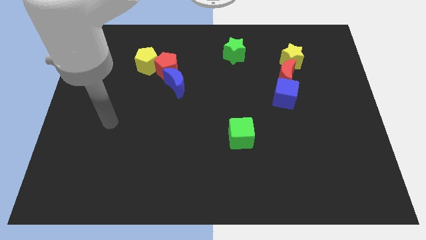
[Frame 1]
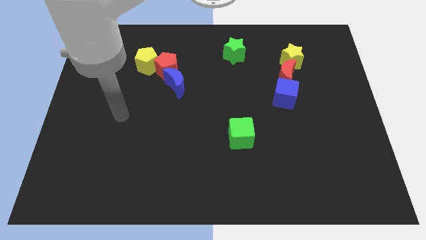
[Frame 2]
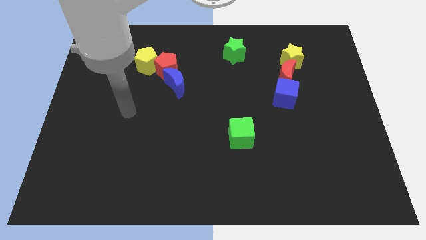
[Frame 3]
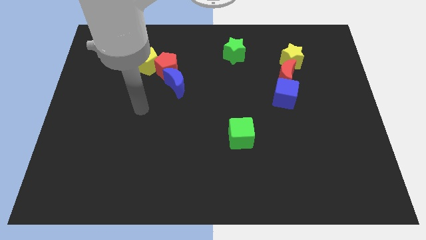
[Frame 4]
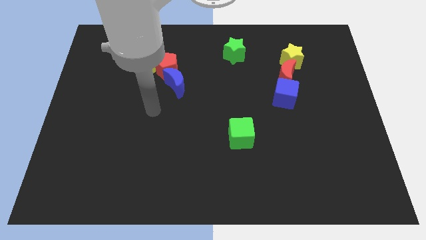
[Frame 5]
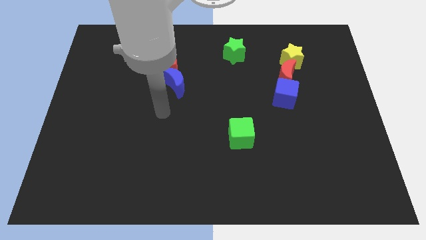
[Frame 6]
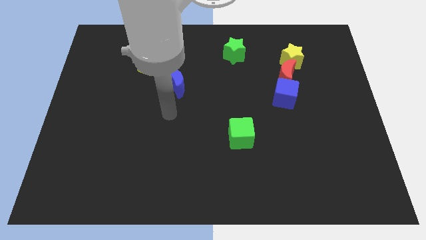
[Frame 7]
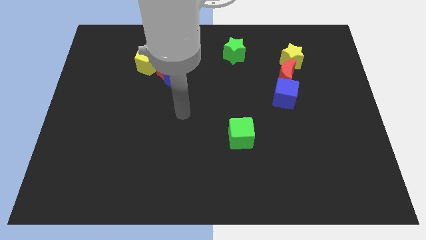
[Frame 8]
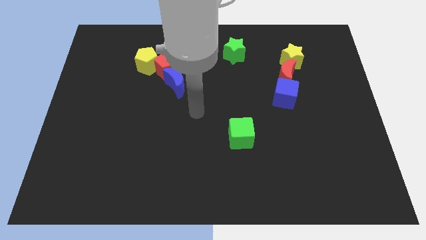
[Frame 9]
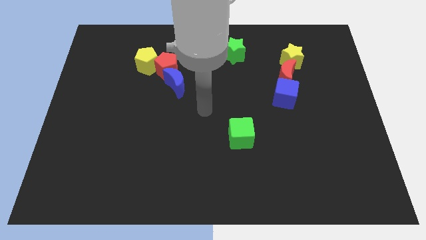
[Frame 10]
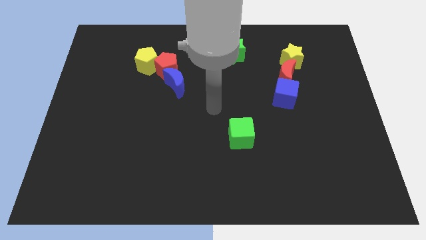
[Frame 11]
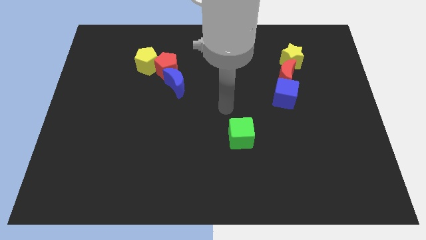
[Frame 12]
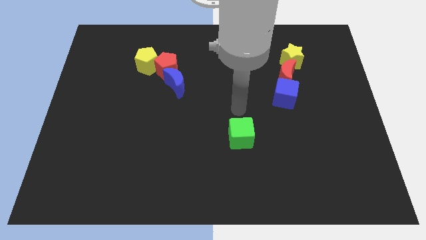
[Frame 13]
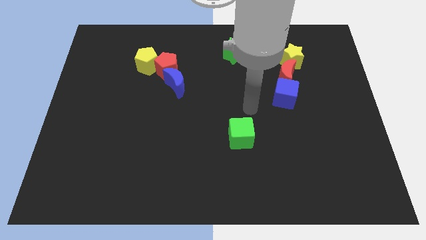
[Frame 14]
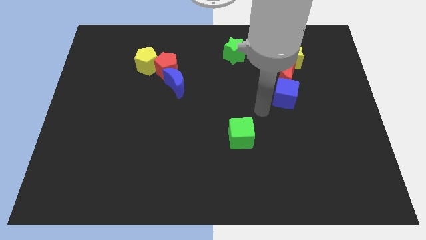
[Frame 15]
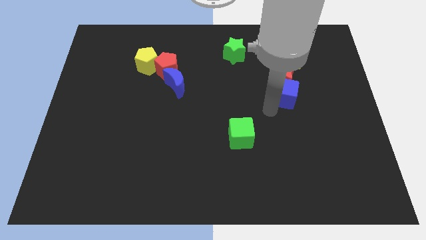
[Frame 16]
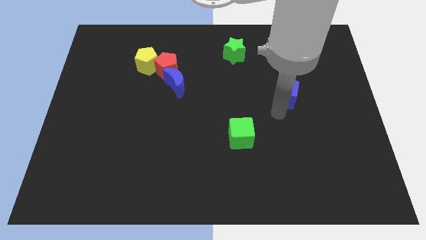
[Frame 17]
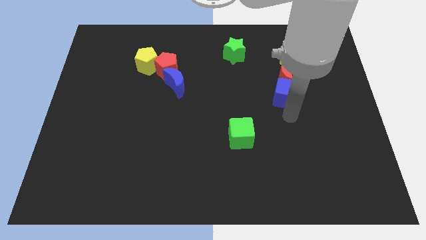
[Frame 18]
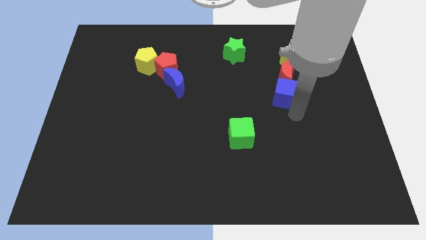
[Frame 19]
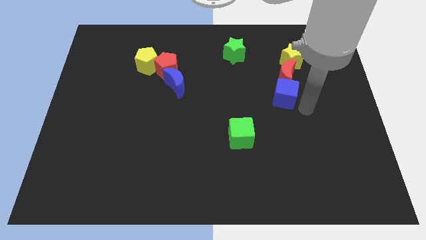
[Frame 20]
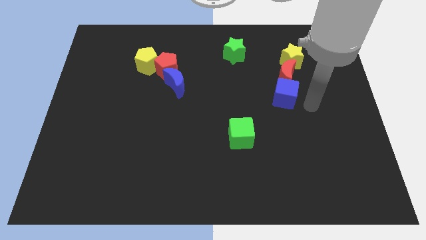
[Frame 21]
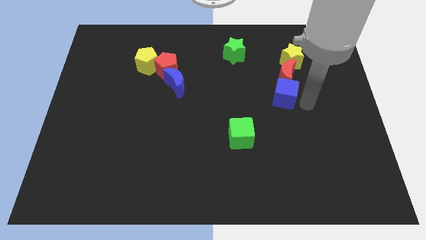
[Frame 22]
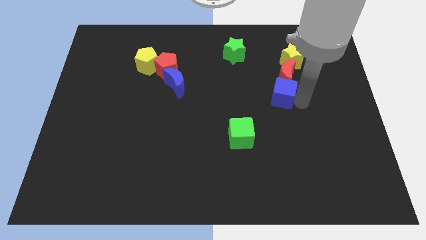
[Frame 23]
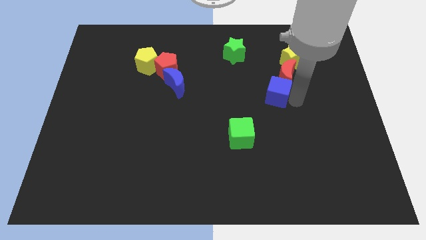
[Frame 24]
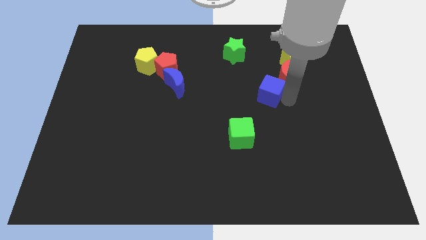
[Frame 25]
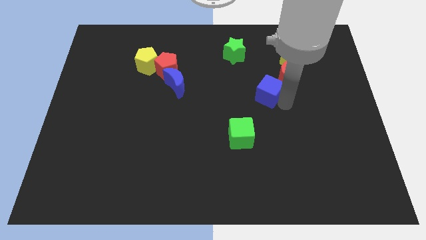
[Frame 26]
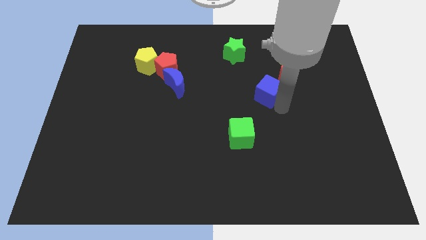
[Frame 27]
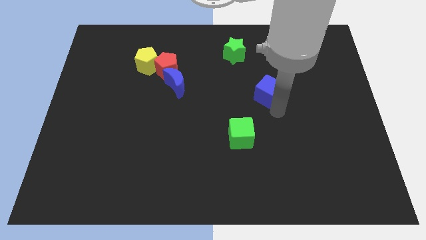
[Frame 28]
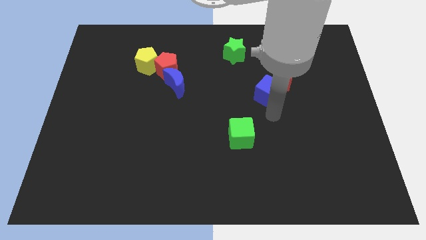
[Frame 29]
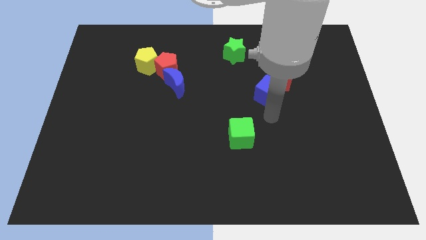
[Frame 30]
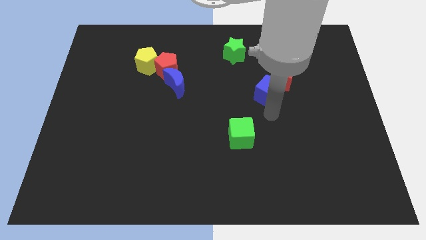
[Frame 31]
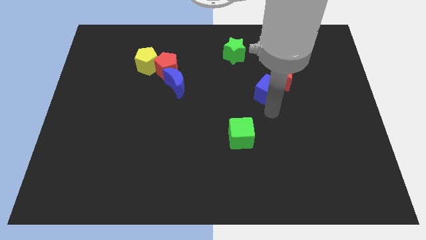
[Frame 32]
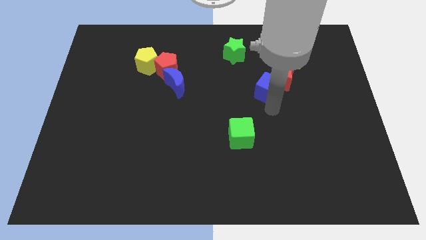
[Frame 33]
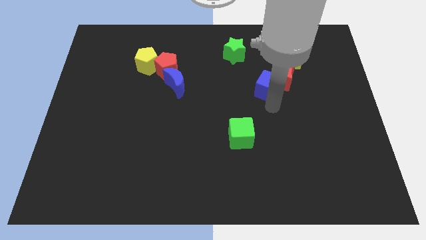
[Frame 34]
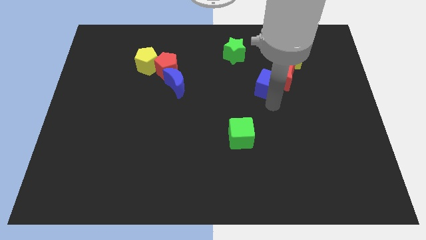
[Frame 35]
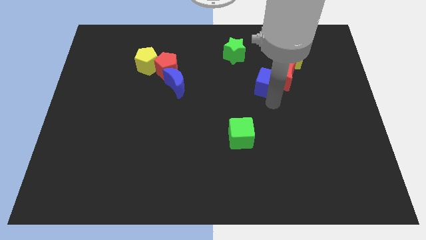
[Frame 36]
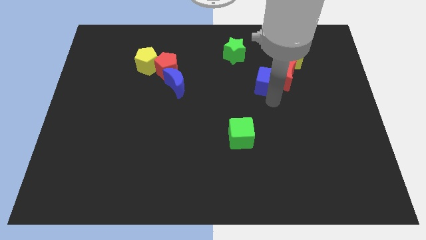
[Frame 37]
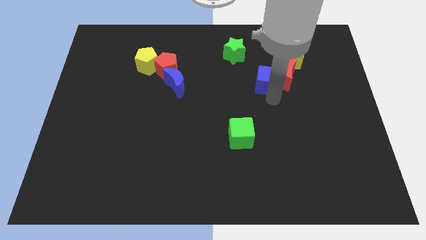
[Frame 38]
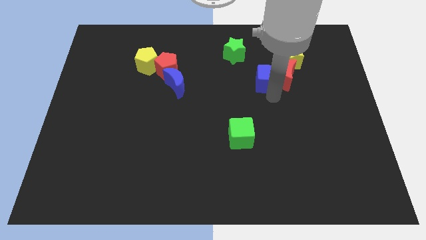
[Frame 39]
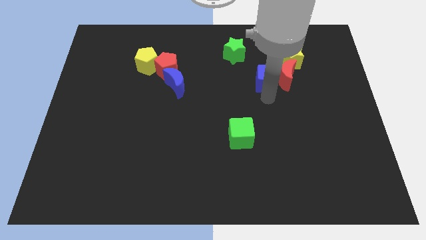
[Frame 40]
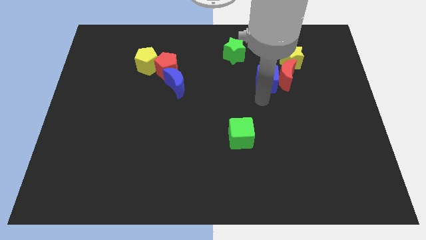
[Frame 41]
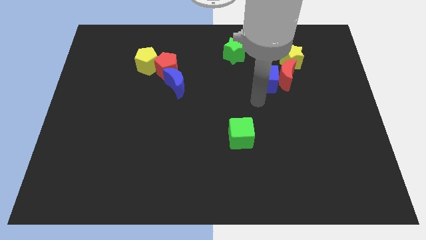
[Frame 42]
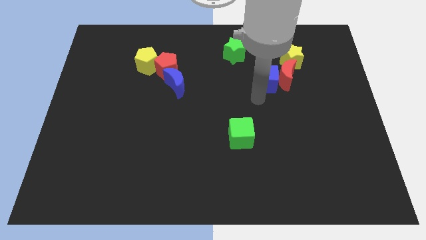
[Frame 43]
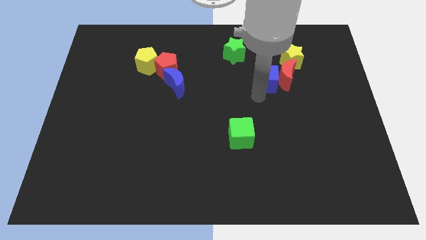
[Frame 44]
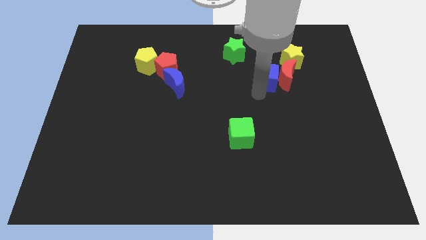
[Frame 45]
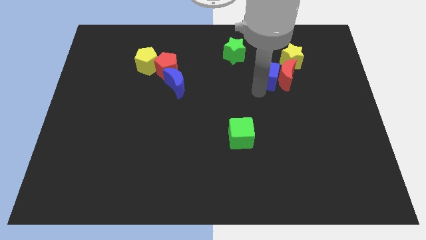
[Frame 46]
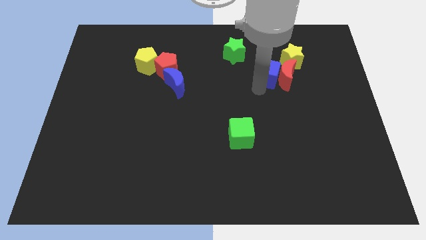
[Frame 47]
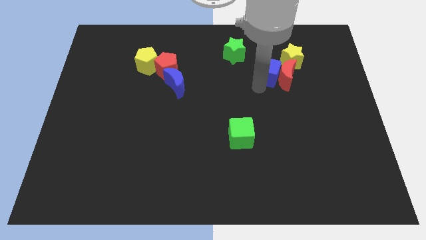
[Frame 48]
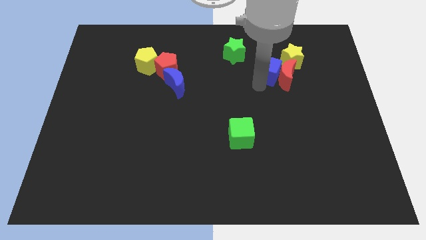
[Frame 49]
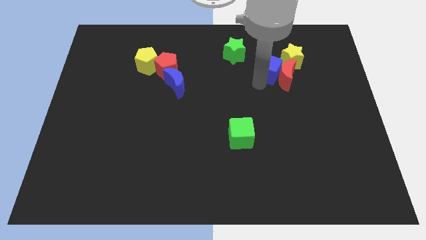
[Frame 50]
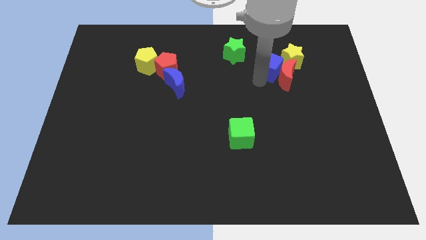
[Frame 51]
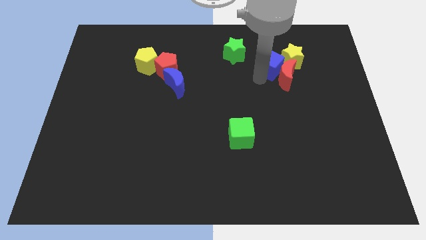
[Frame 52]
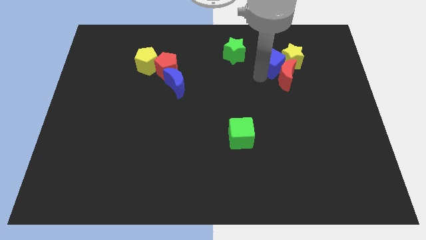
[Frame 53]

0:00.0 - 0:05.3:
slide the blue cube next to the yellow star

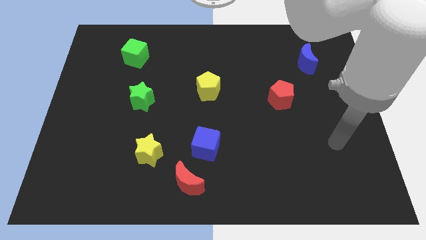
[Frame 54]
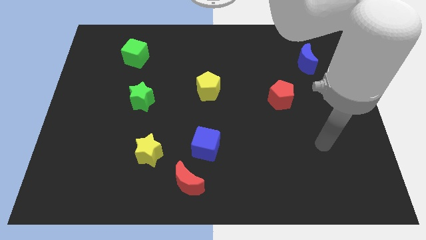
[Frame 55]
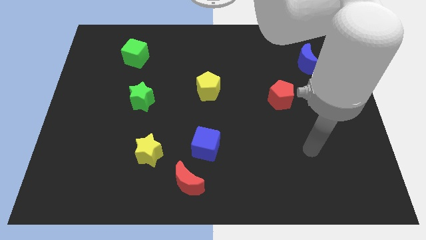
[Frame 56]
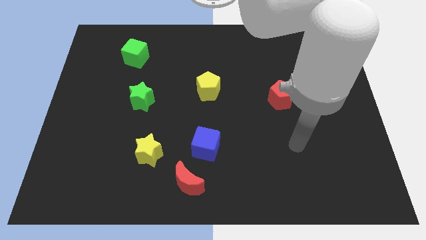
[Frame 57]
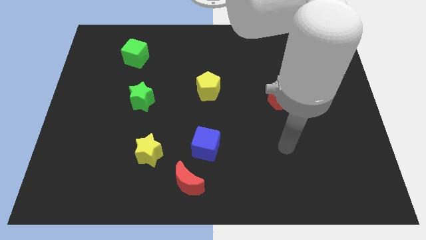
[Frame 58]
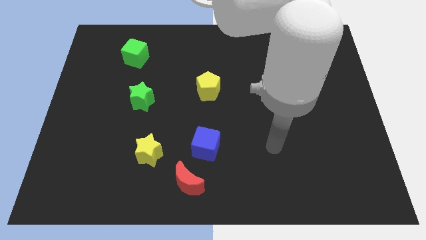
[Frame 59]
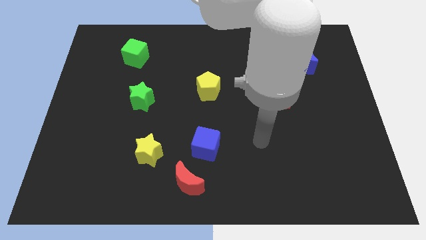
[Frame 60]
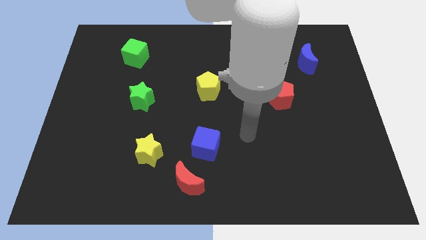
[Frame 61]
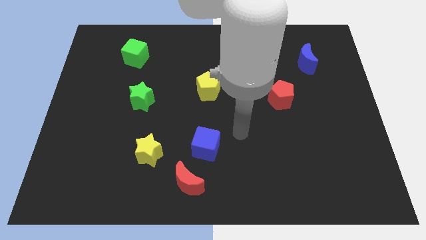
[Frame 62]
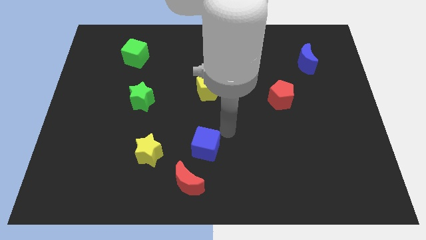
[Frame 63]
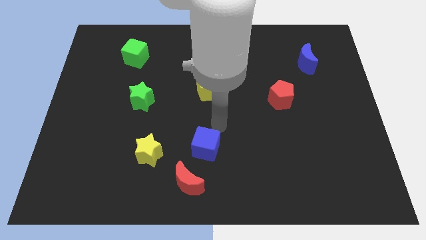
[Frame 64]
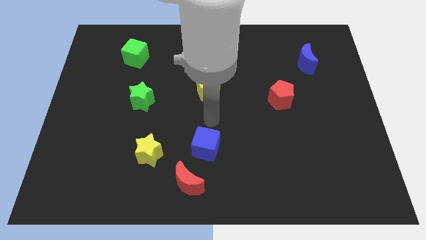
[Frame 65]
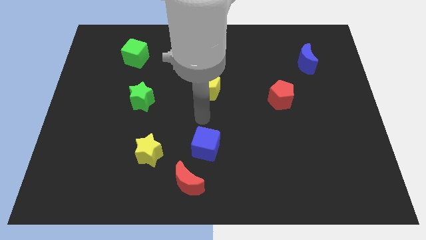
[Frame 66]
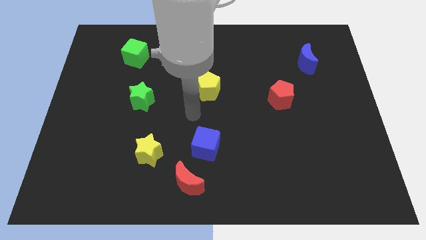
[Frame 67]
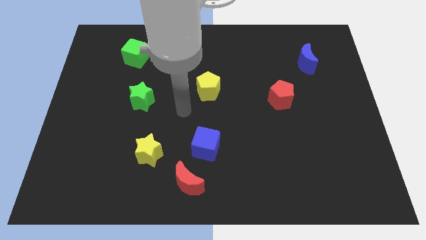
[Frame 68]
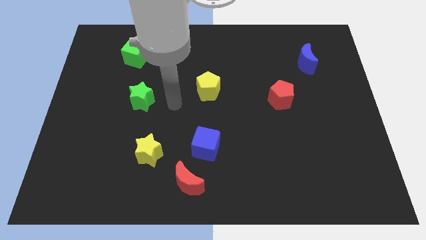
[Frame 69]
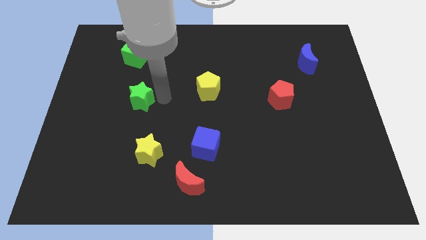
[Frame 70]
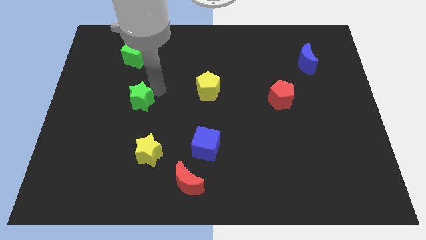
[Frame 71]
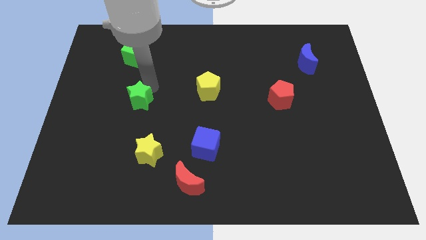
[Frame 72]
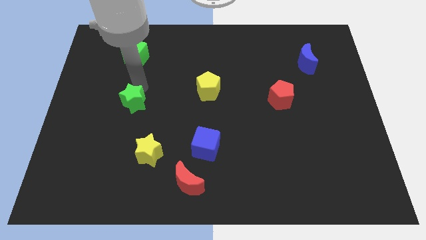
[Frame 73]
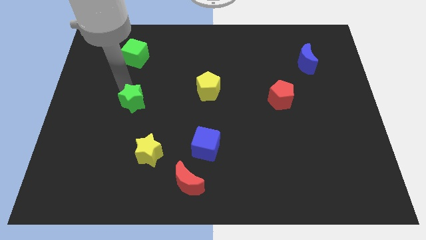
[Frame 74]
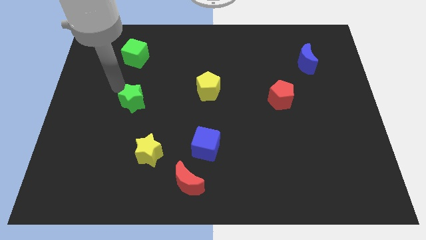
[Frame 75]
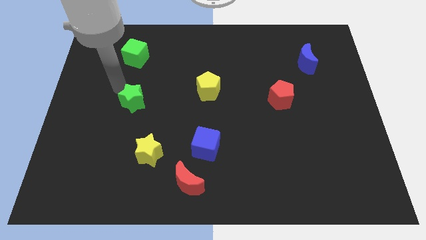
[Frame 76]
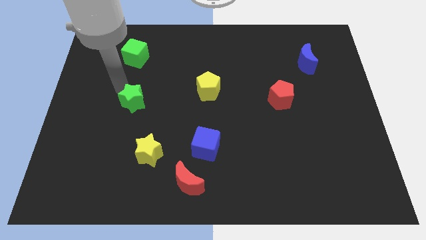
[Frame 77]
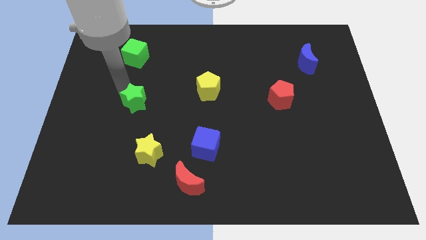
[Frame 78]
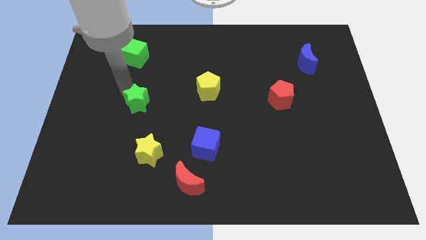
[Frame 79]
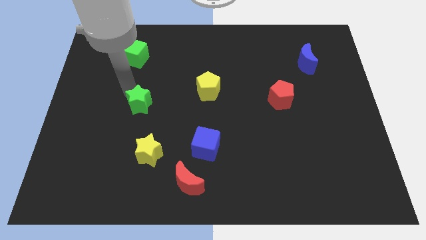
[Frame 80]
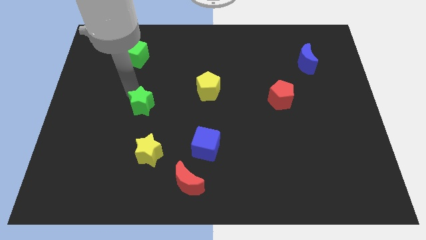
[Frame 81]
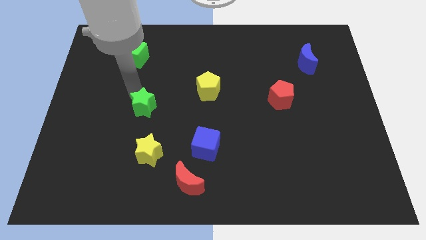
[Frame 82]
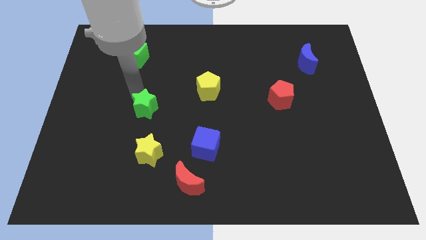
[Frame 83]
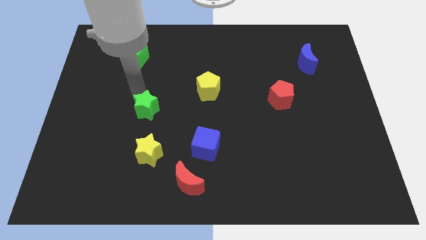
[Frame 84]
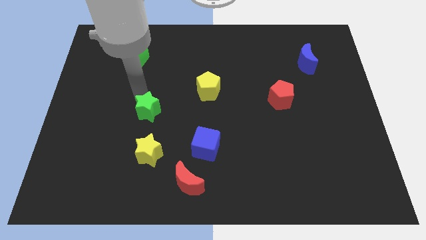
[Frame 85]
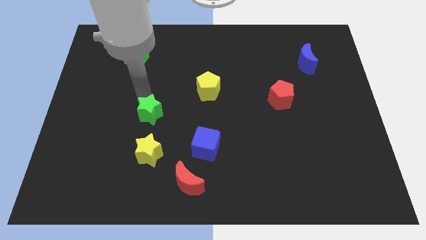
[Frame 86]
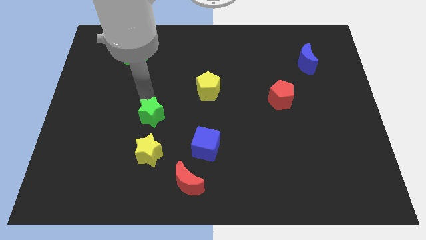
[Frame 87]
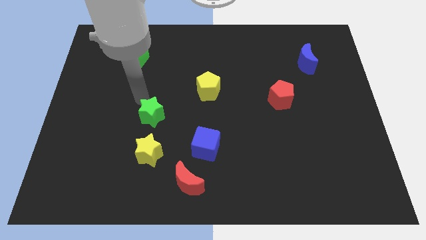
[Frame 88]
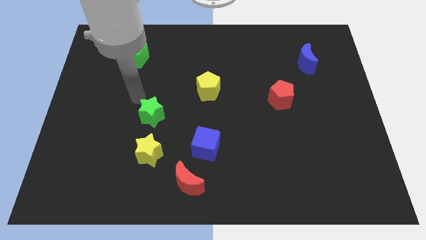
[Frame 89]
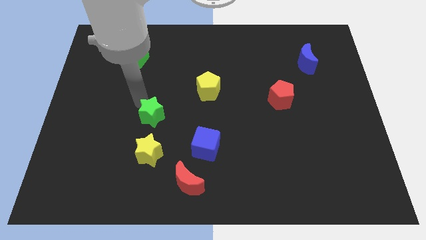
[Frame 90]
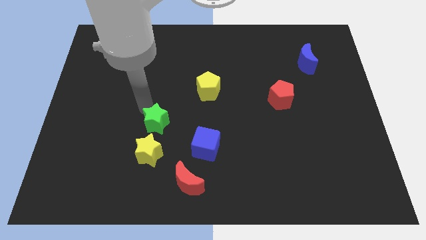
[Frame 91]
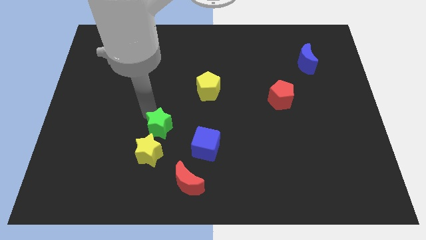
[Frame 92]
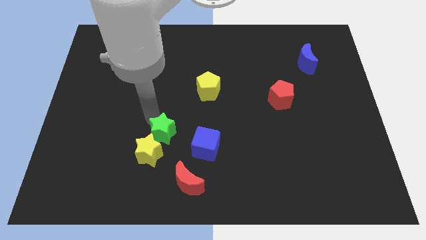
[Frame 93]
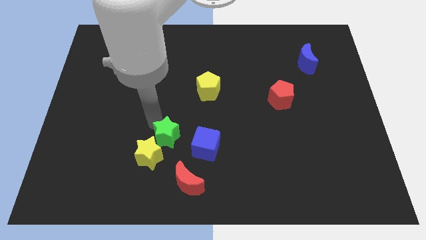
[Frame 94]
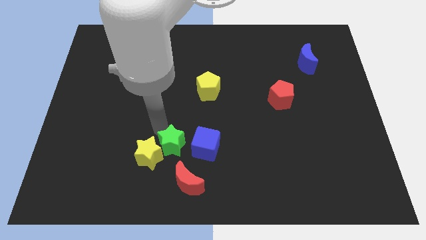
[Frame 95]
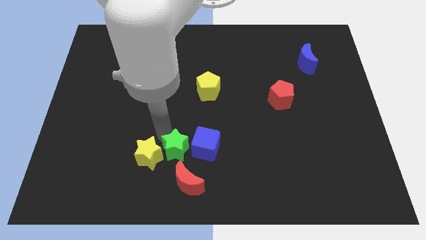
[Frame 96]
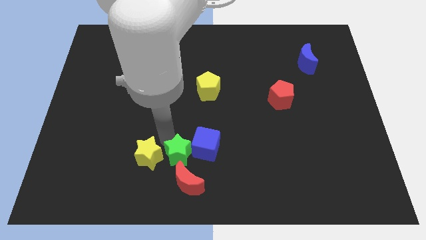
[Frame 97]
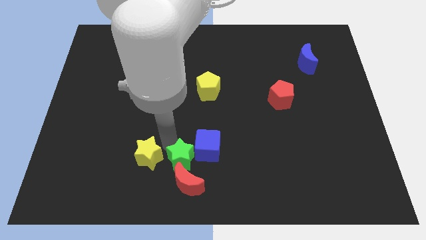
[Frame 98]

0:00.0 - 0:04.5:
push the green star to the red moon
